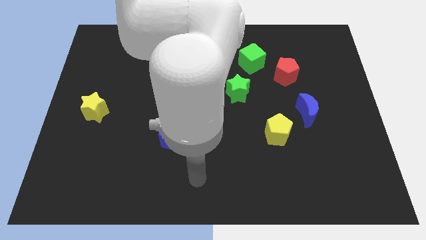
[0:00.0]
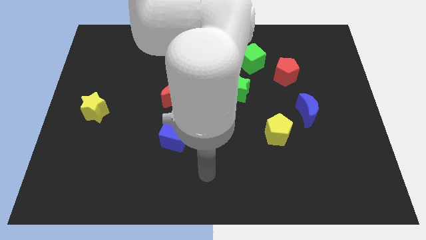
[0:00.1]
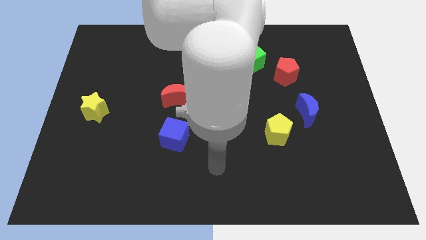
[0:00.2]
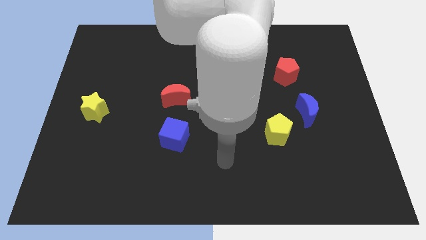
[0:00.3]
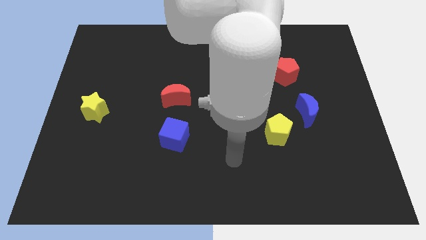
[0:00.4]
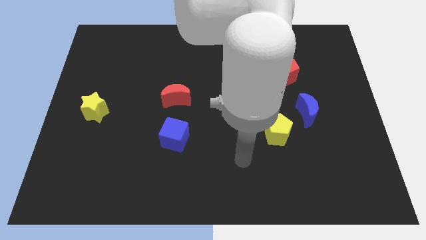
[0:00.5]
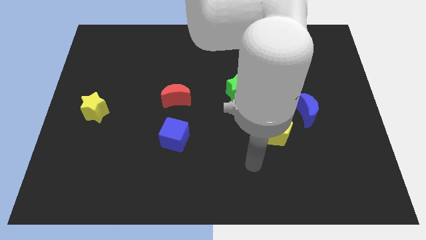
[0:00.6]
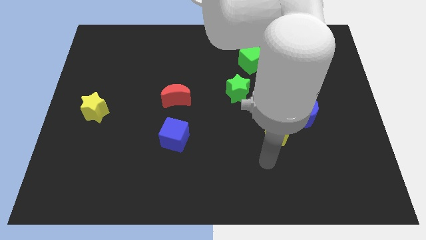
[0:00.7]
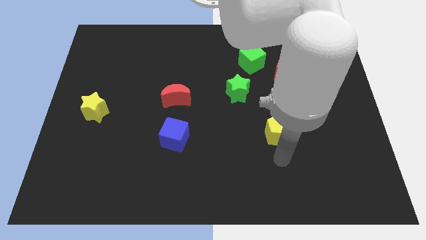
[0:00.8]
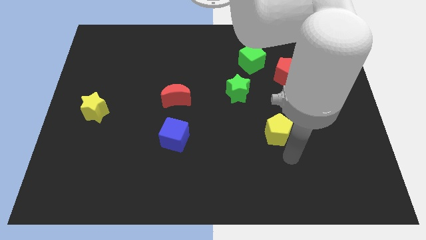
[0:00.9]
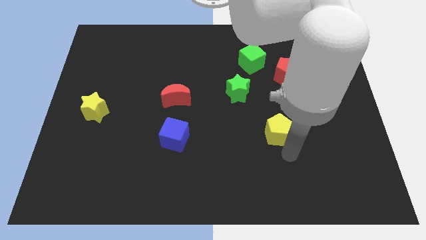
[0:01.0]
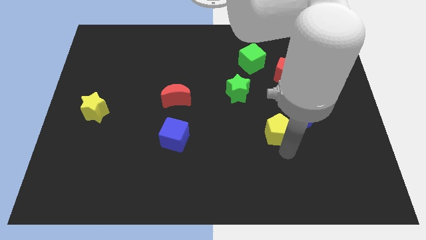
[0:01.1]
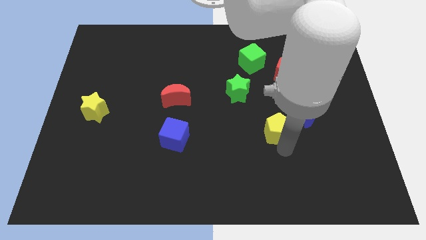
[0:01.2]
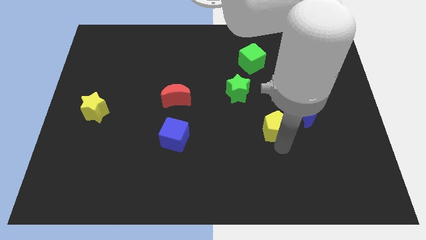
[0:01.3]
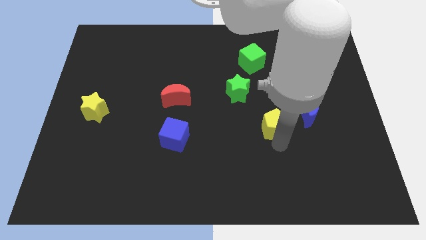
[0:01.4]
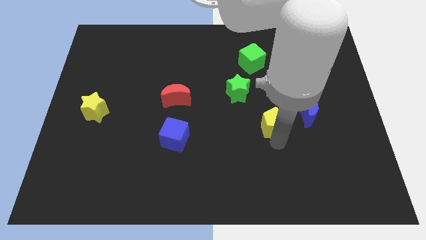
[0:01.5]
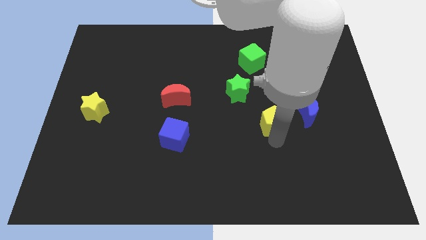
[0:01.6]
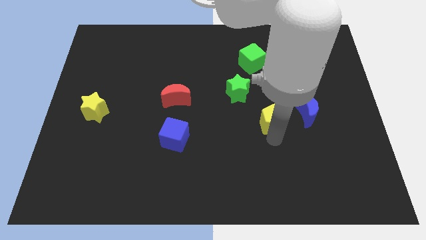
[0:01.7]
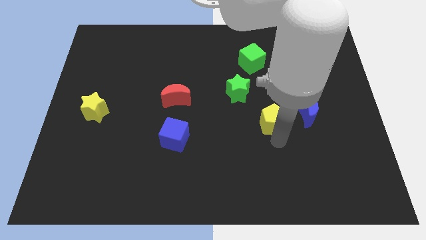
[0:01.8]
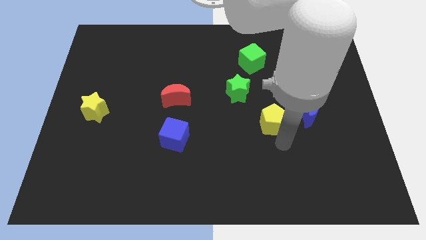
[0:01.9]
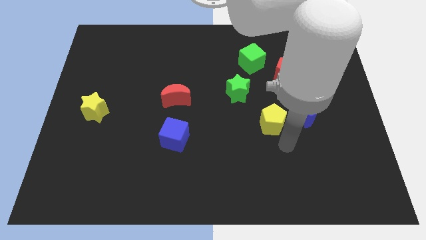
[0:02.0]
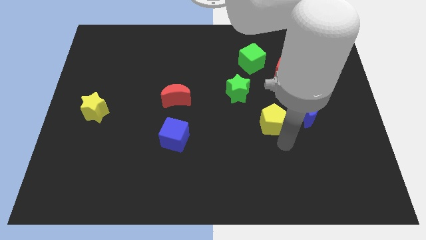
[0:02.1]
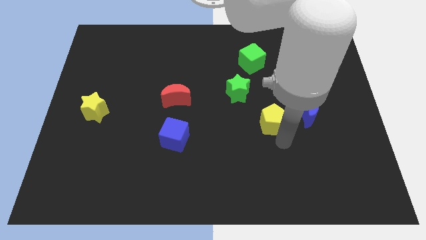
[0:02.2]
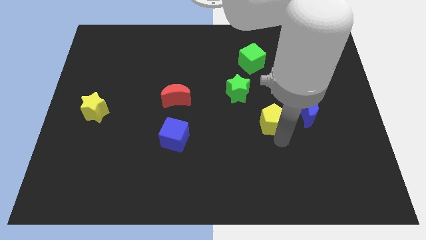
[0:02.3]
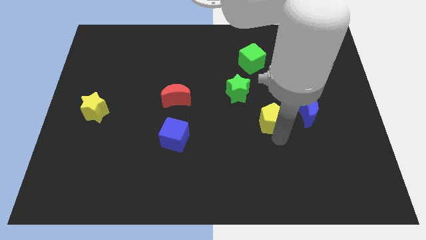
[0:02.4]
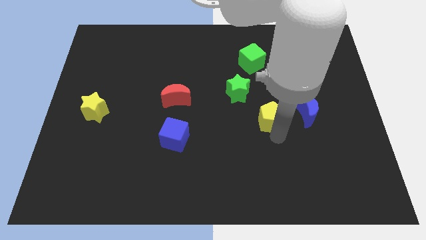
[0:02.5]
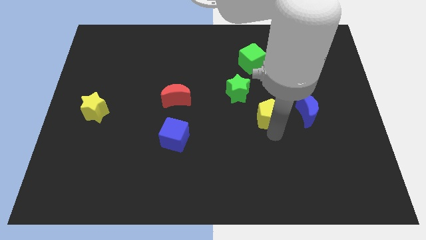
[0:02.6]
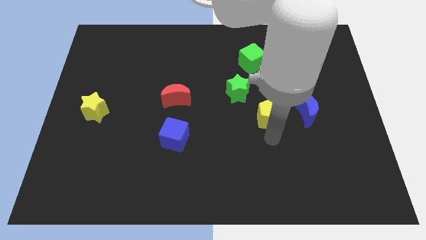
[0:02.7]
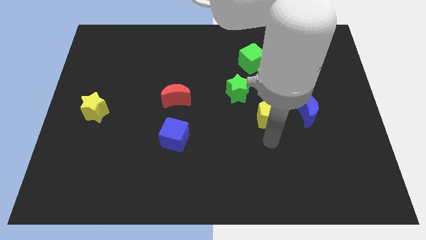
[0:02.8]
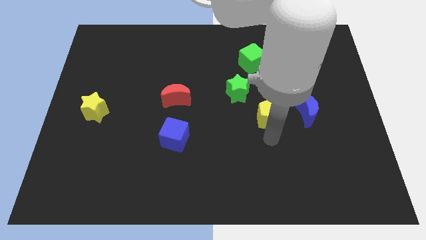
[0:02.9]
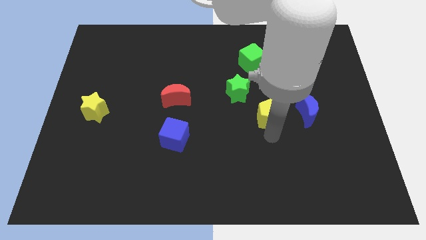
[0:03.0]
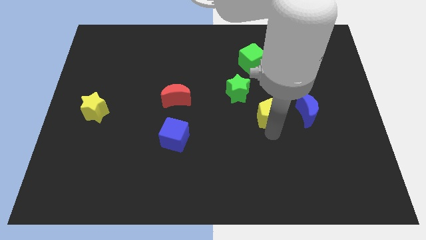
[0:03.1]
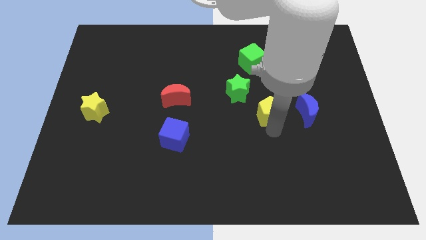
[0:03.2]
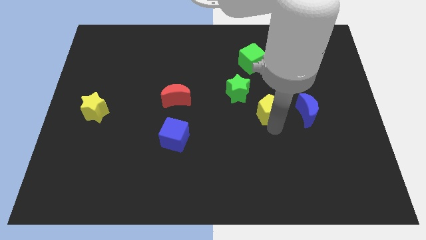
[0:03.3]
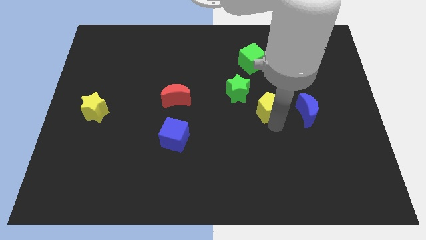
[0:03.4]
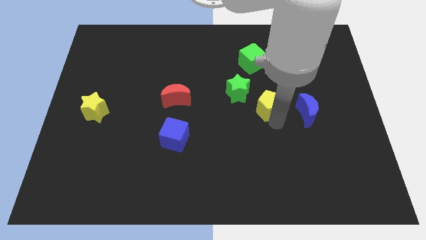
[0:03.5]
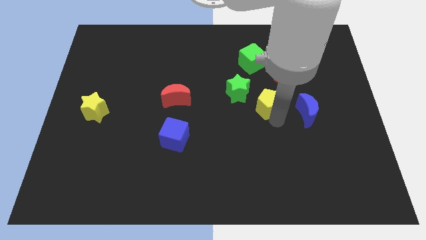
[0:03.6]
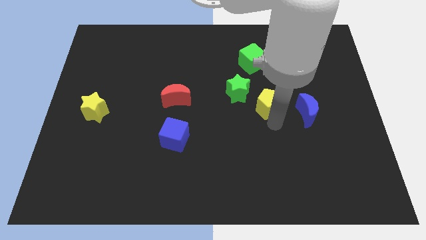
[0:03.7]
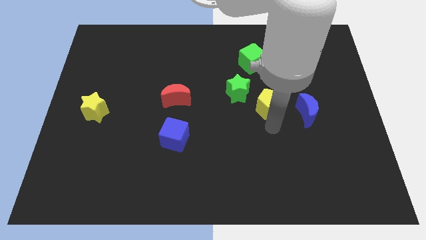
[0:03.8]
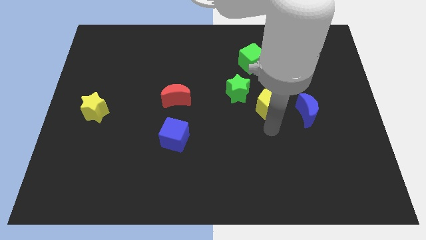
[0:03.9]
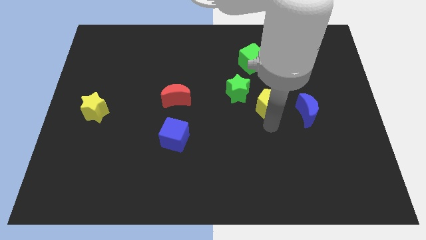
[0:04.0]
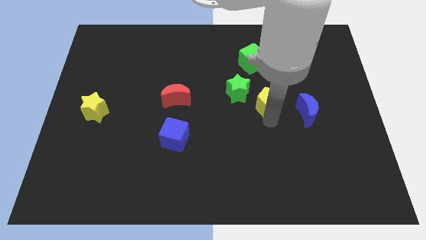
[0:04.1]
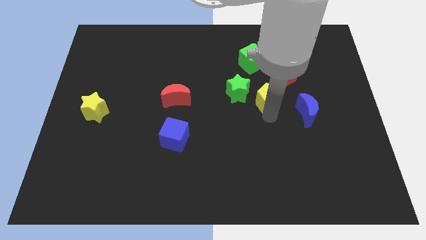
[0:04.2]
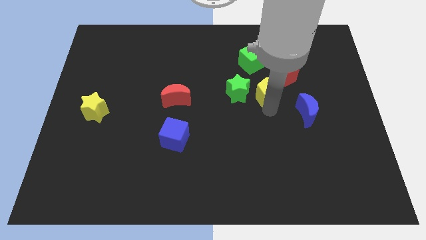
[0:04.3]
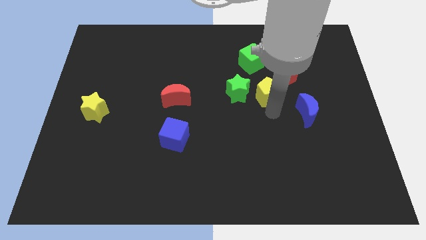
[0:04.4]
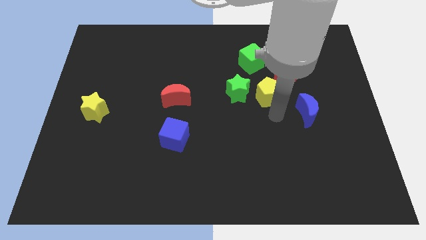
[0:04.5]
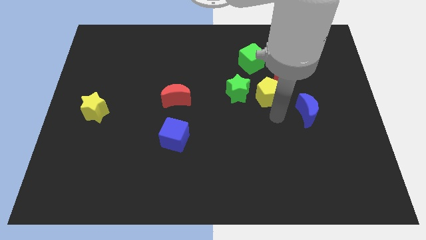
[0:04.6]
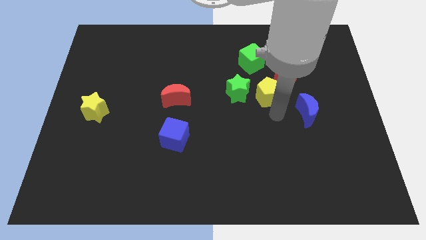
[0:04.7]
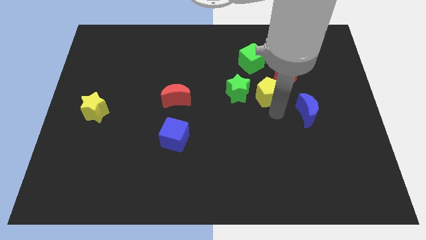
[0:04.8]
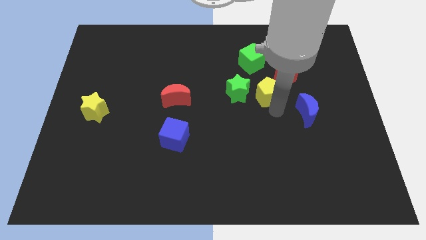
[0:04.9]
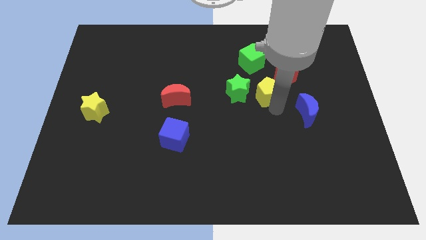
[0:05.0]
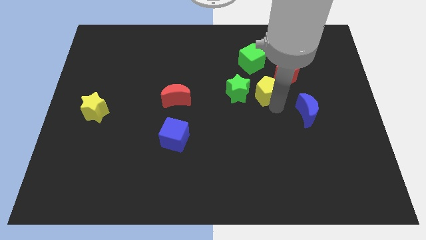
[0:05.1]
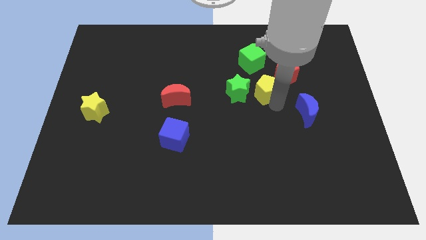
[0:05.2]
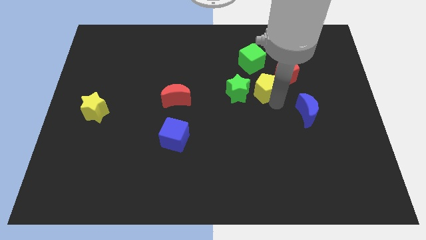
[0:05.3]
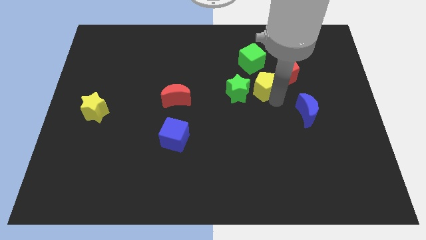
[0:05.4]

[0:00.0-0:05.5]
push the yellow pentagon to the left of the red pentagon

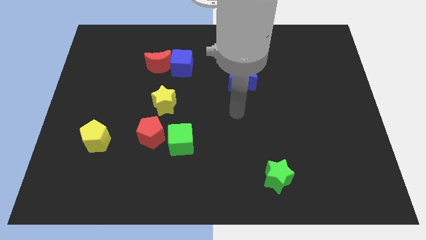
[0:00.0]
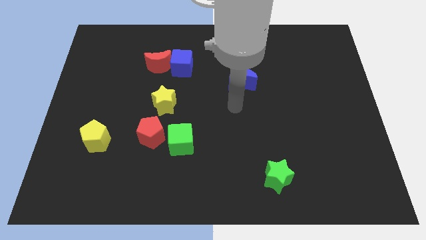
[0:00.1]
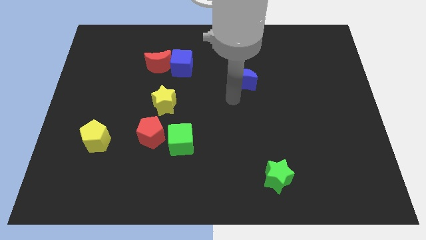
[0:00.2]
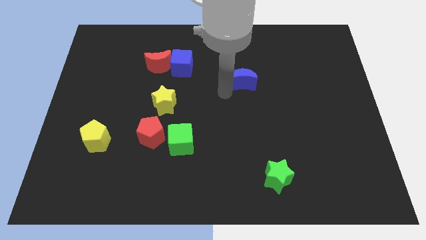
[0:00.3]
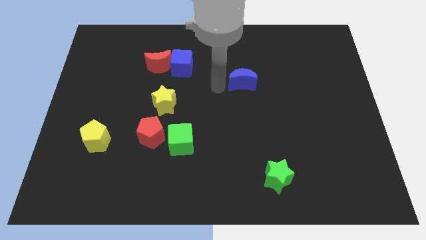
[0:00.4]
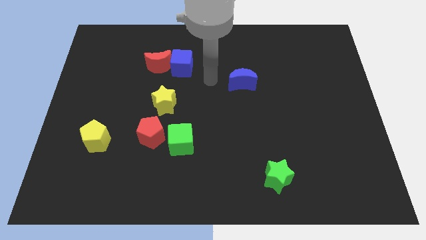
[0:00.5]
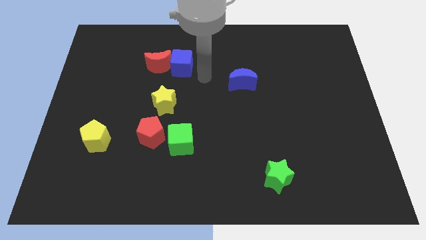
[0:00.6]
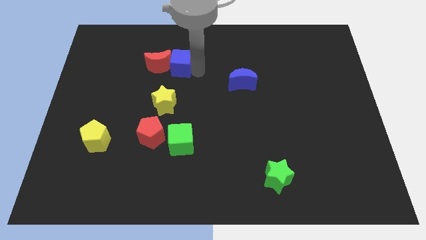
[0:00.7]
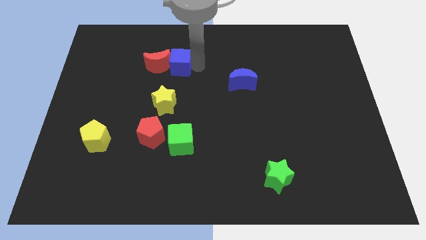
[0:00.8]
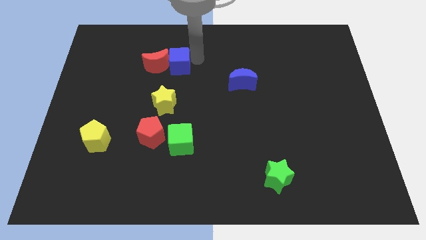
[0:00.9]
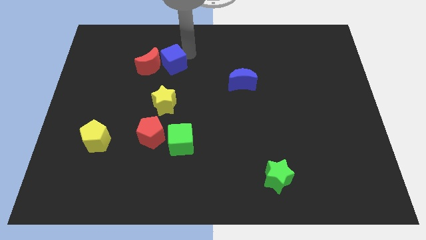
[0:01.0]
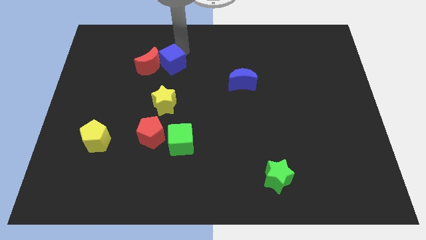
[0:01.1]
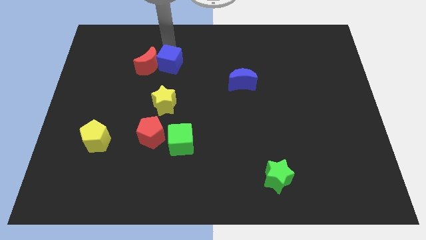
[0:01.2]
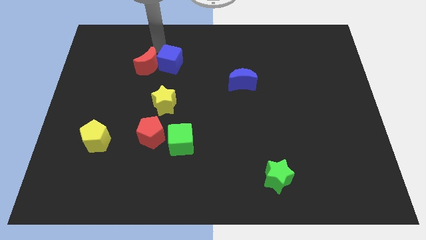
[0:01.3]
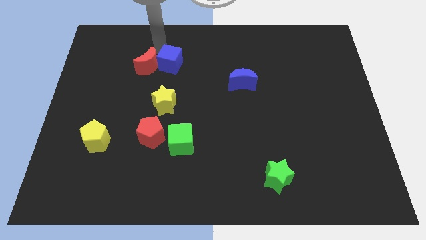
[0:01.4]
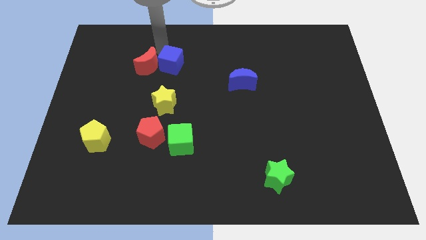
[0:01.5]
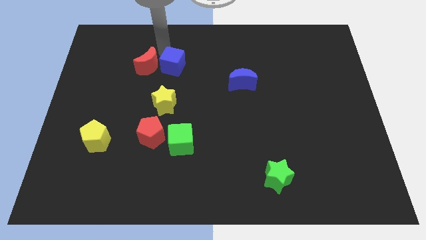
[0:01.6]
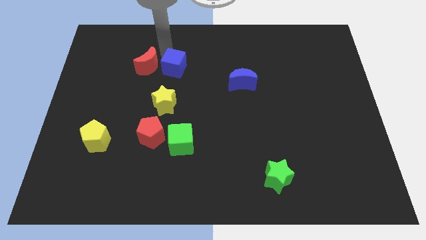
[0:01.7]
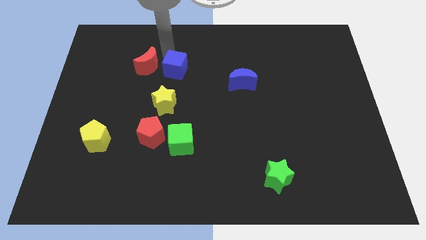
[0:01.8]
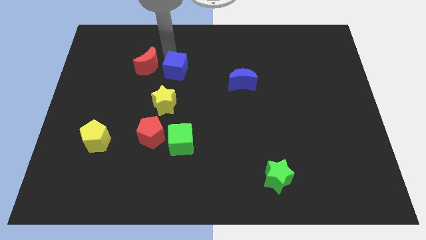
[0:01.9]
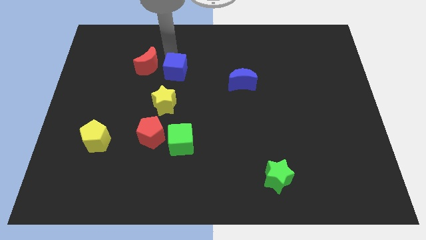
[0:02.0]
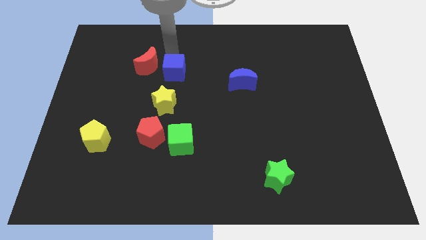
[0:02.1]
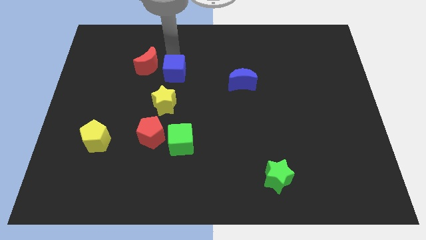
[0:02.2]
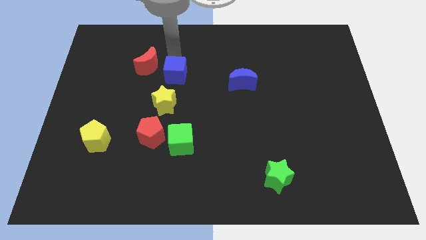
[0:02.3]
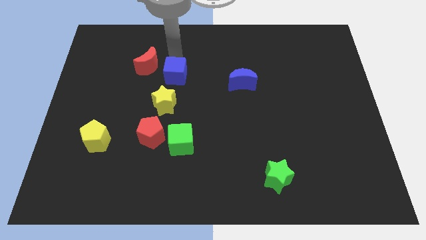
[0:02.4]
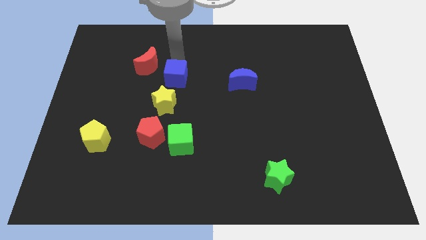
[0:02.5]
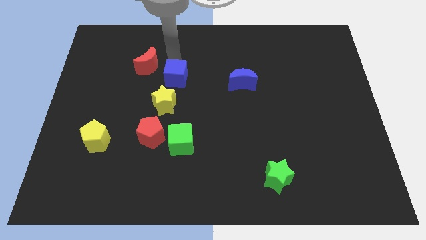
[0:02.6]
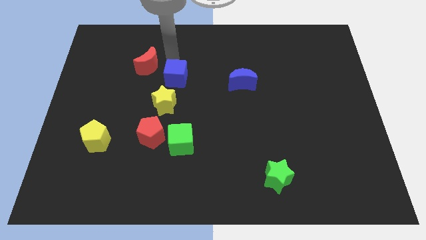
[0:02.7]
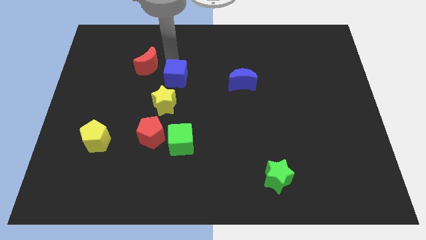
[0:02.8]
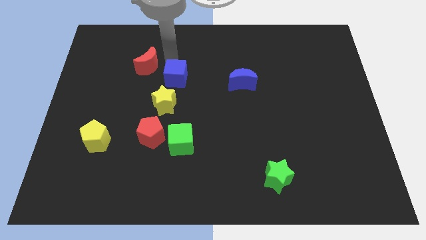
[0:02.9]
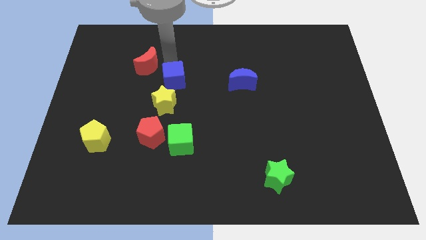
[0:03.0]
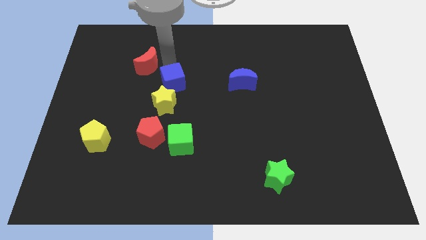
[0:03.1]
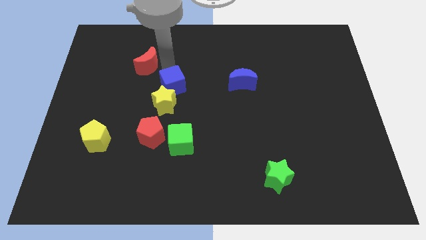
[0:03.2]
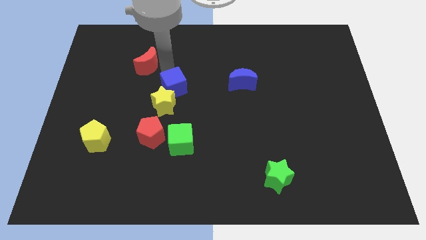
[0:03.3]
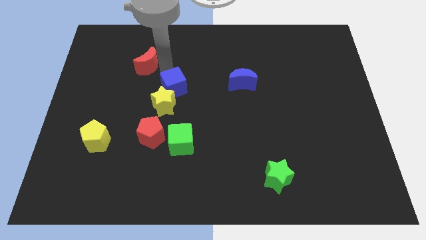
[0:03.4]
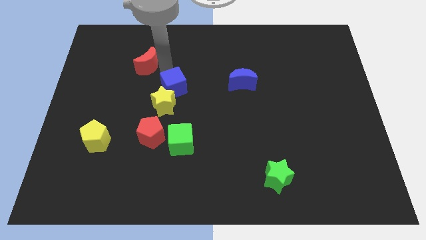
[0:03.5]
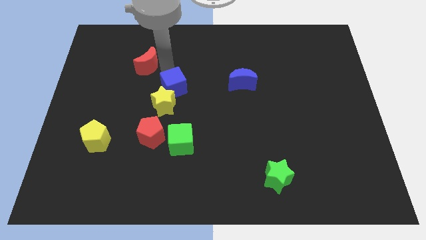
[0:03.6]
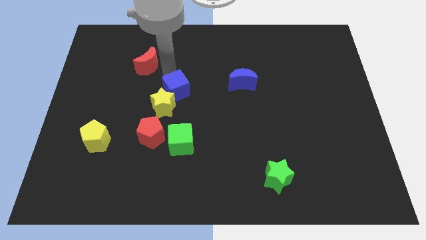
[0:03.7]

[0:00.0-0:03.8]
move the blue cube to the top of the green cube
